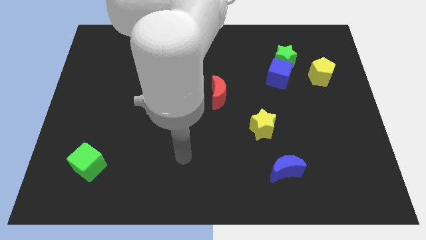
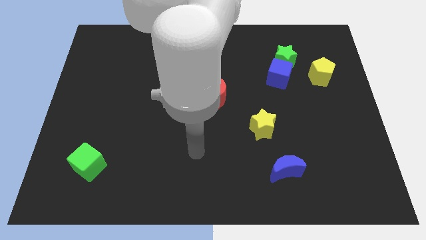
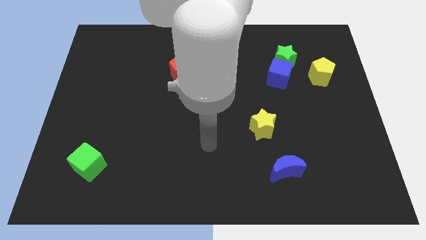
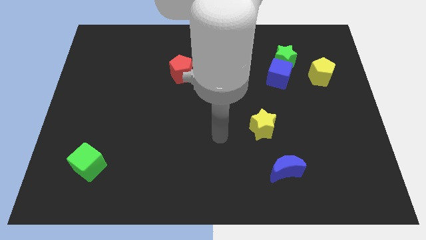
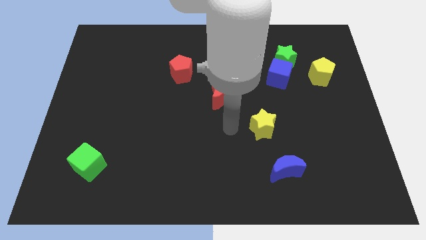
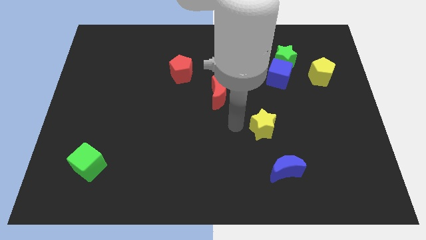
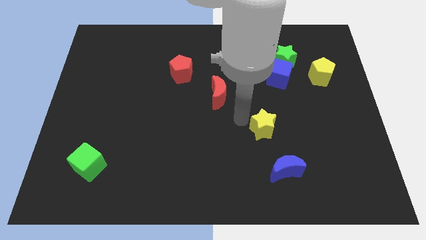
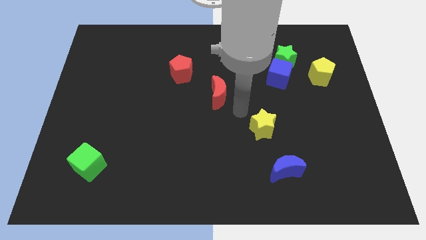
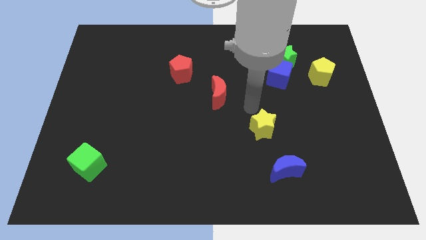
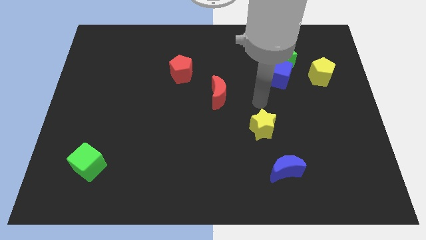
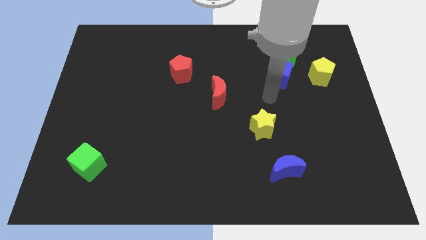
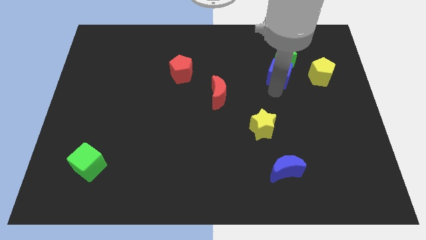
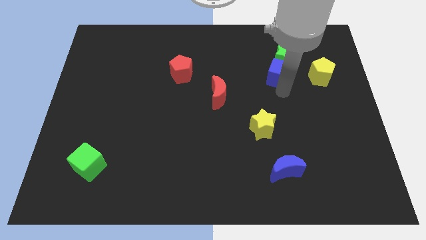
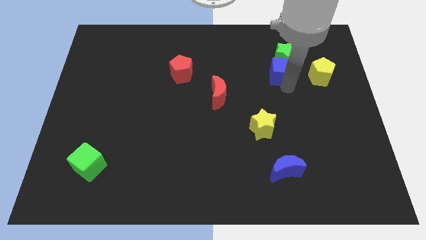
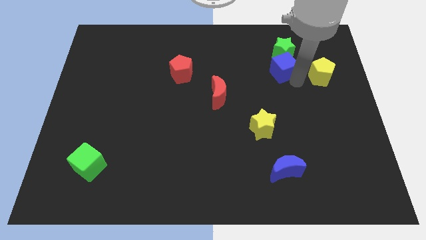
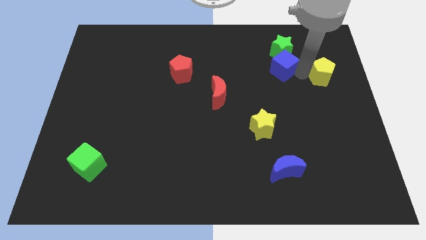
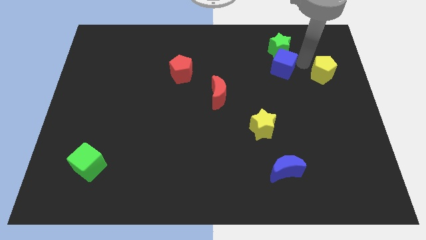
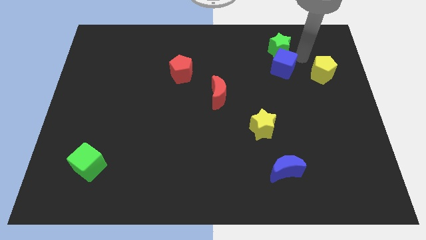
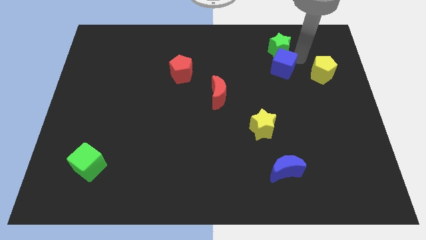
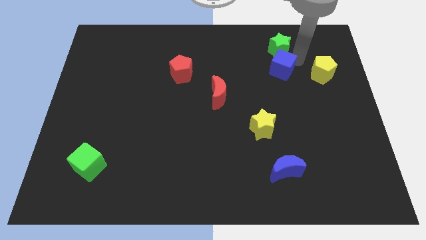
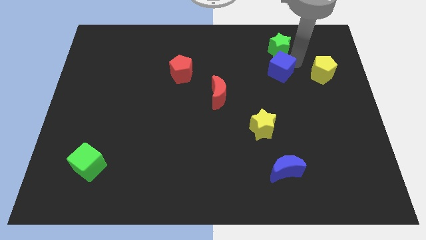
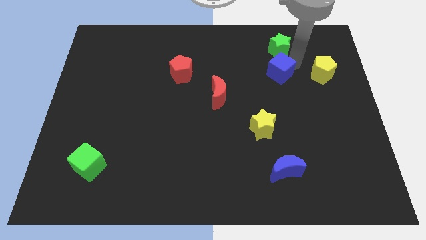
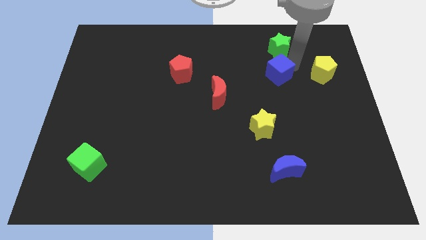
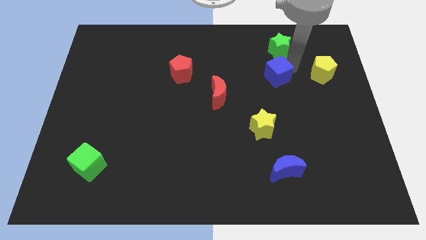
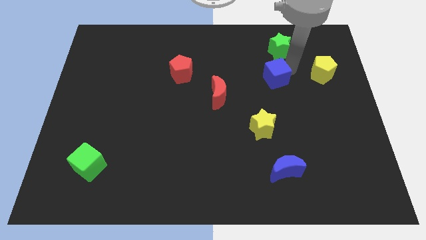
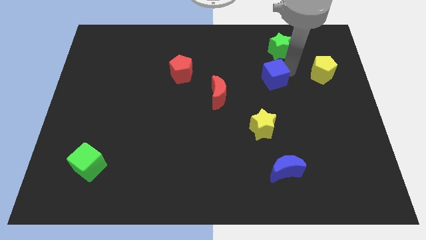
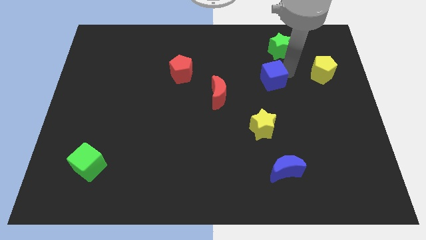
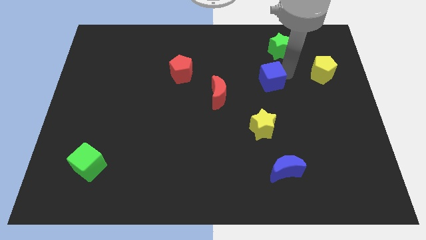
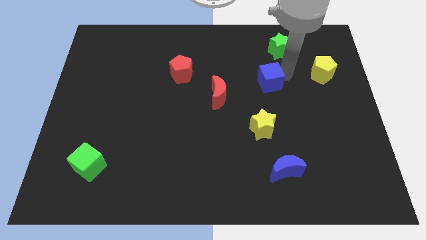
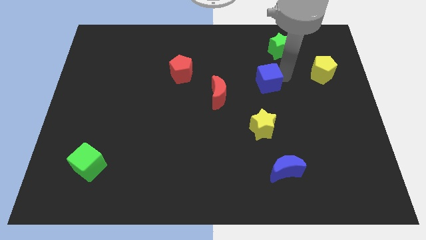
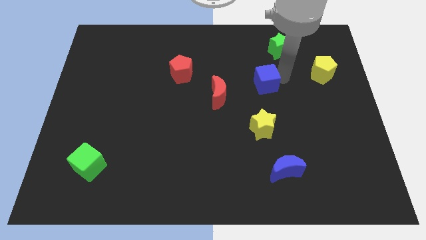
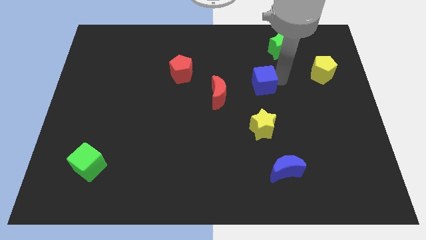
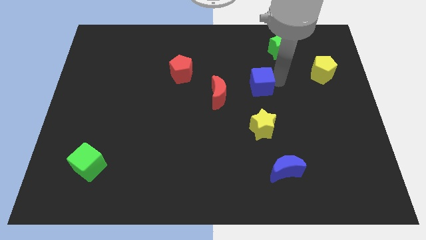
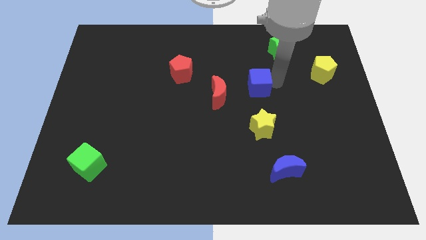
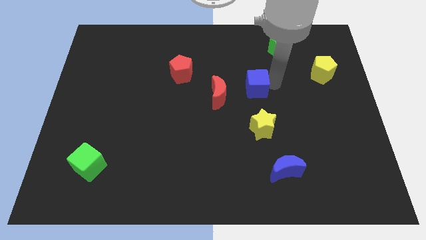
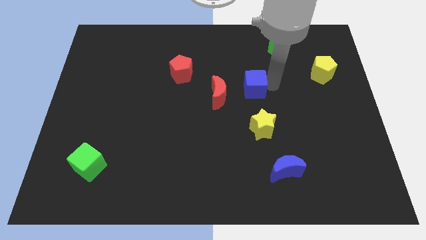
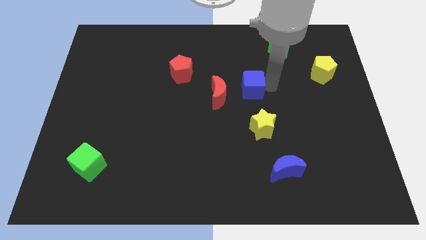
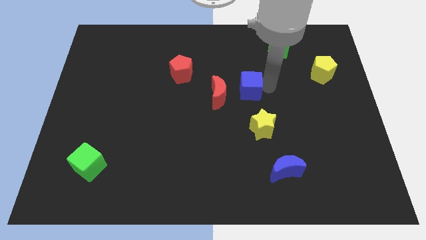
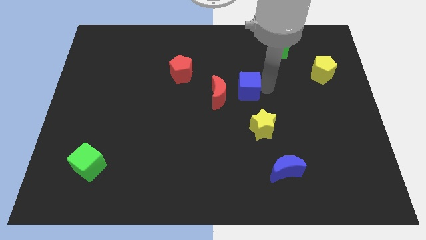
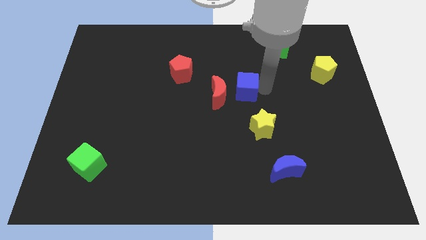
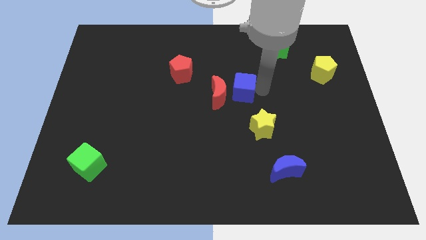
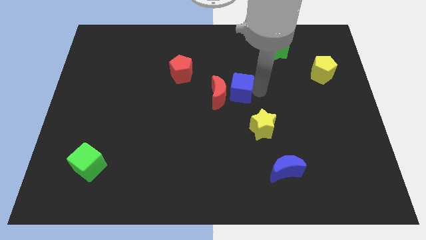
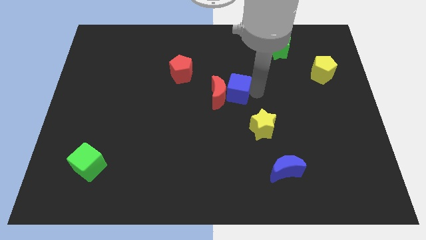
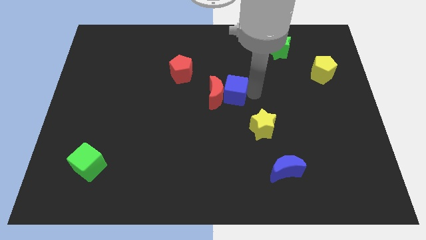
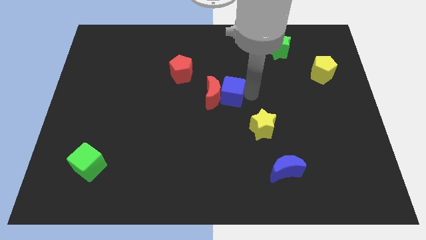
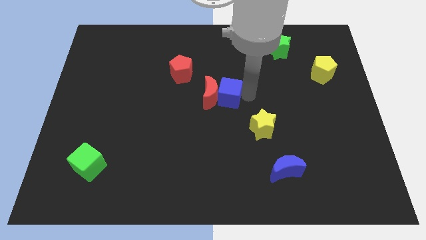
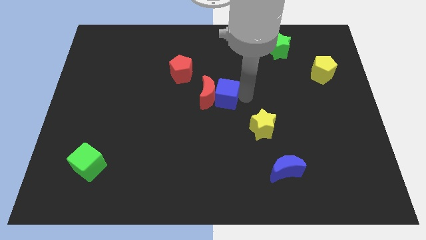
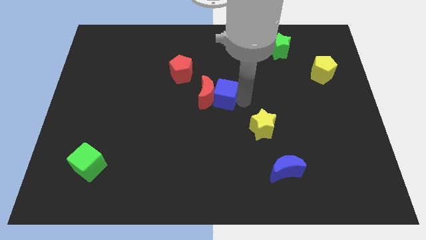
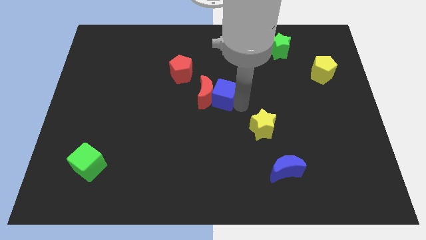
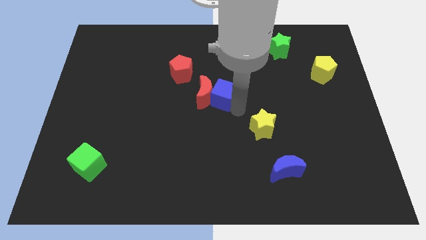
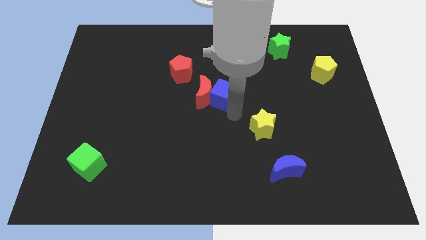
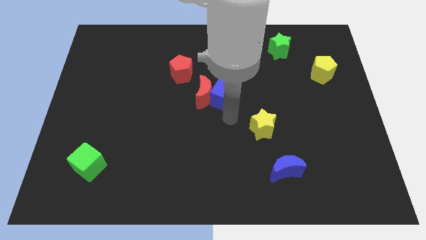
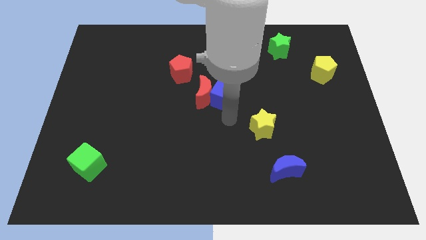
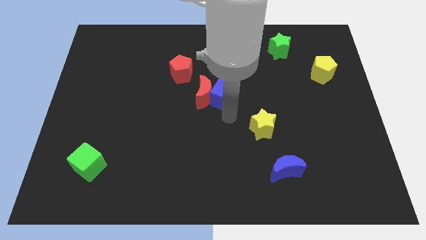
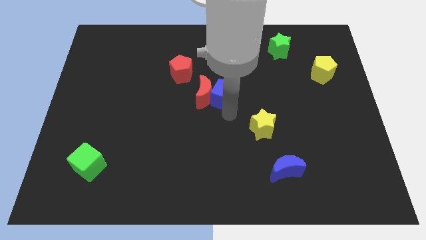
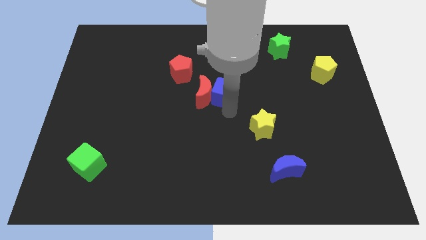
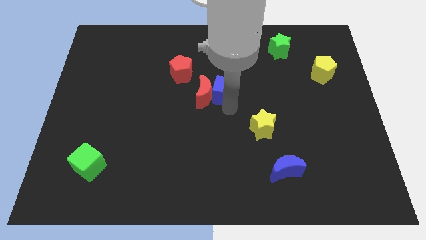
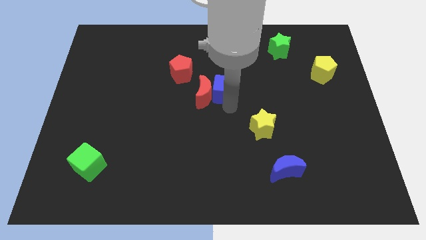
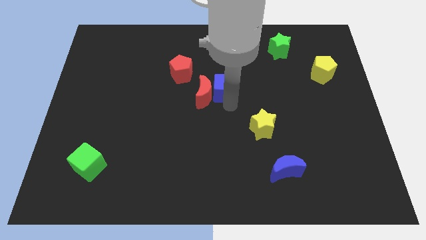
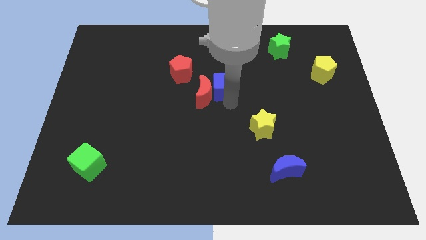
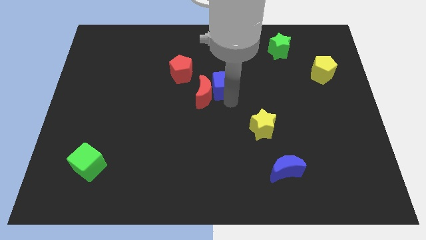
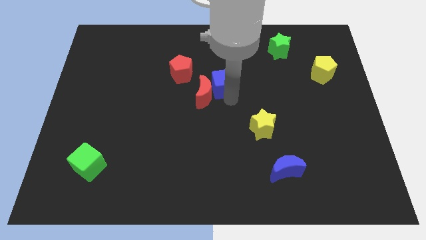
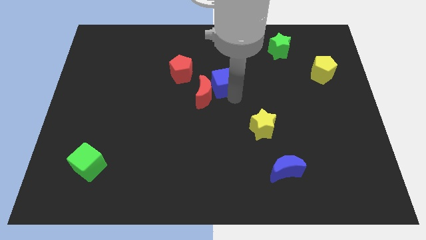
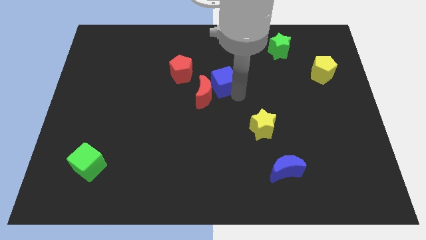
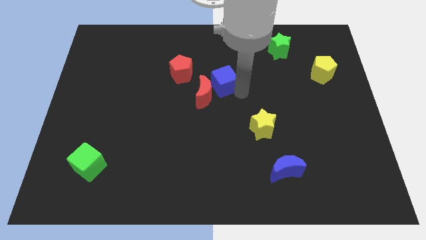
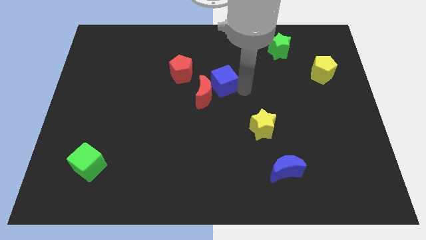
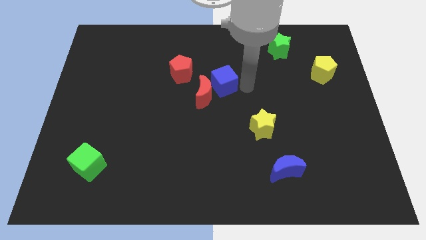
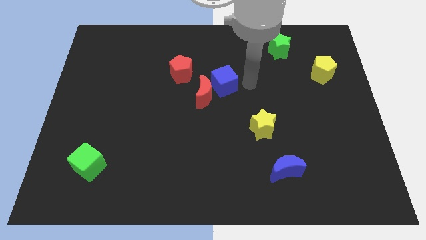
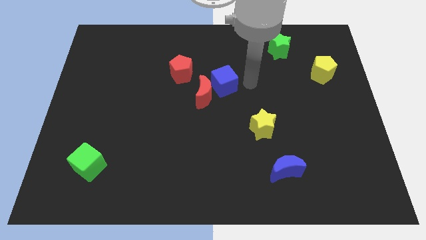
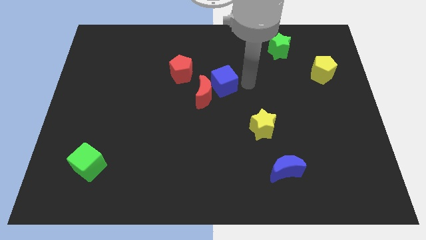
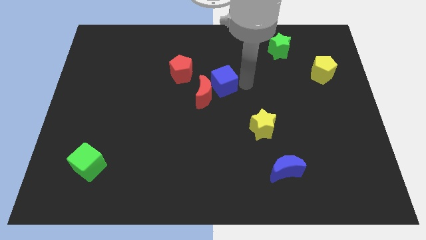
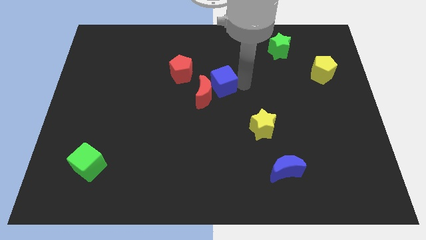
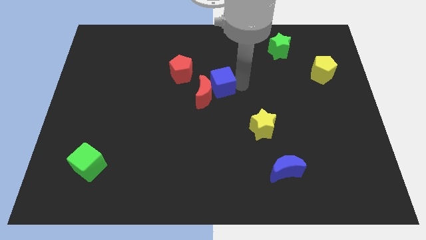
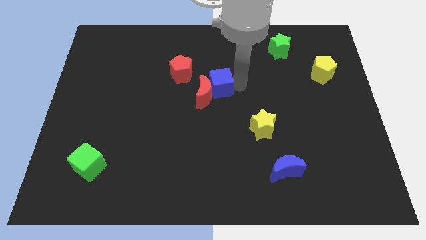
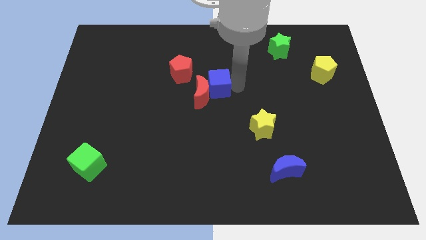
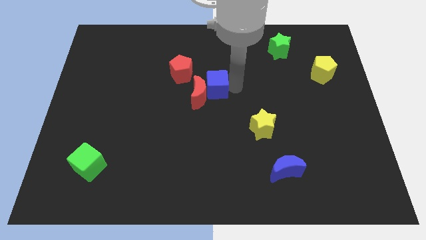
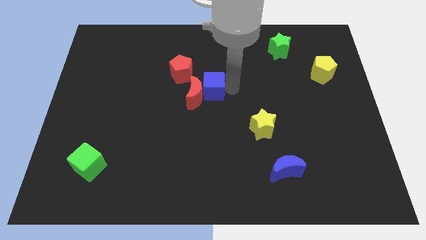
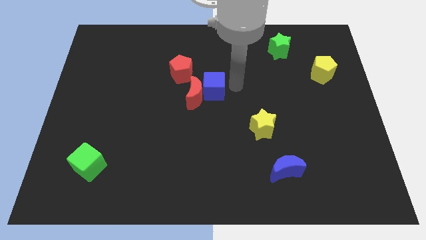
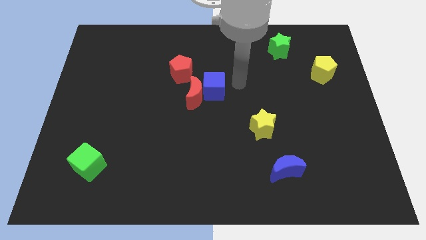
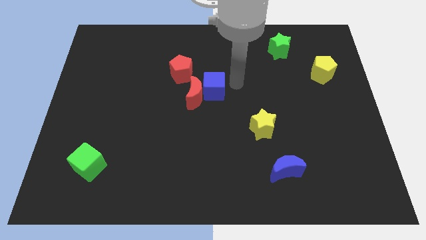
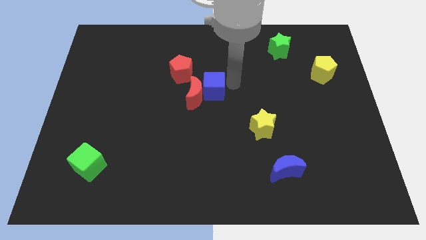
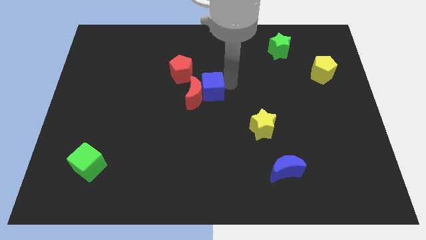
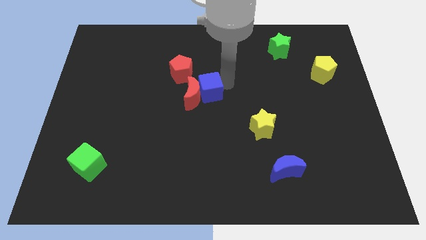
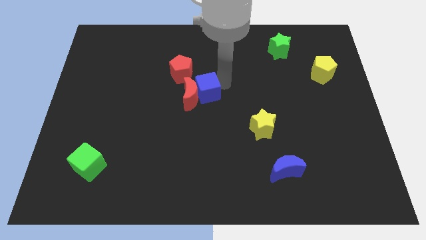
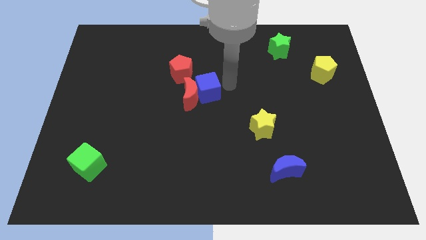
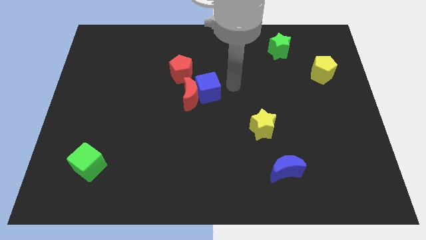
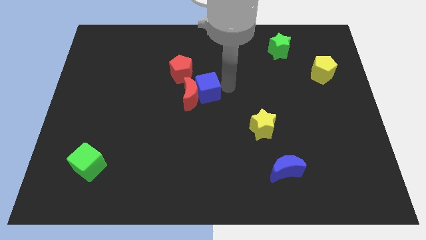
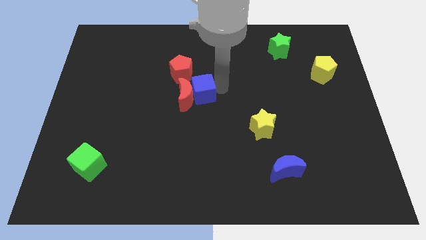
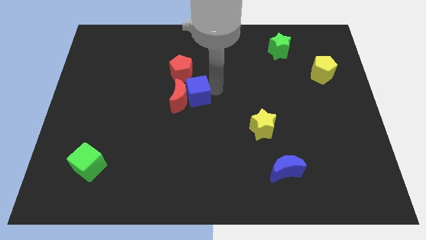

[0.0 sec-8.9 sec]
slide the blue cube below the red pentagon
